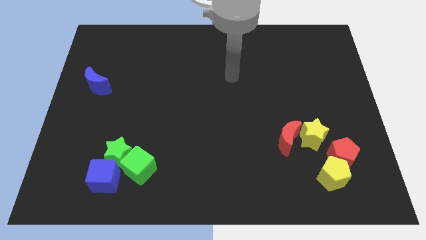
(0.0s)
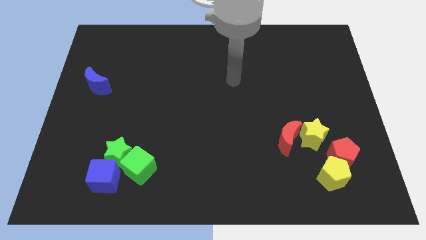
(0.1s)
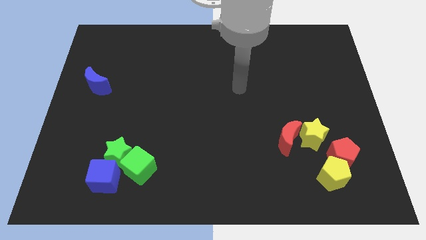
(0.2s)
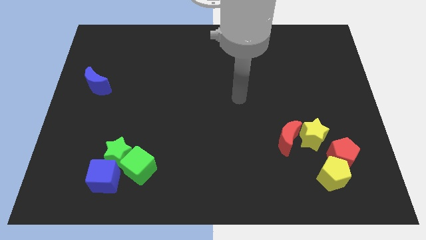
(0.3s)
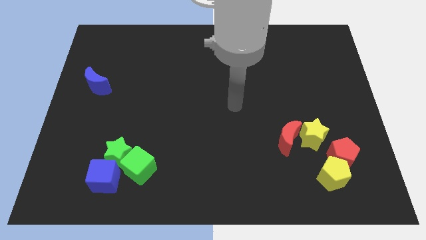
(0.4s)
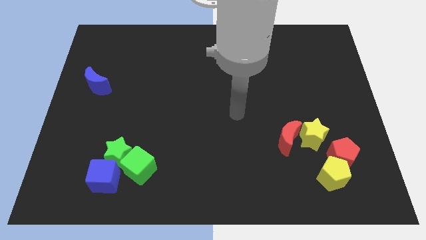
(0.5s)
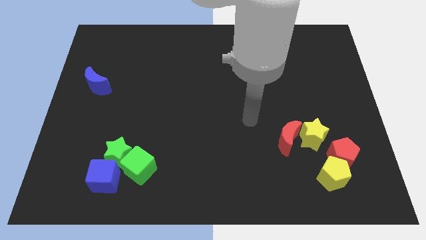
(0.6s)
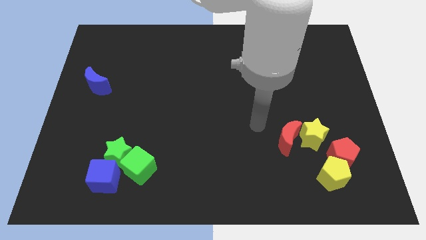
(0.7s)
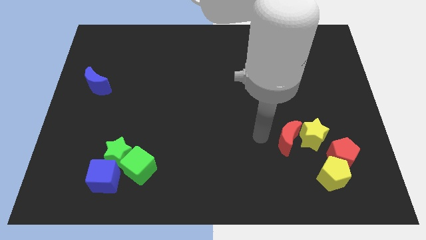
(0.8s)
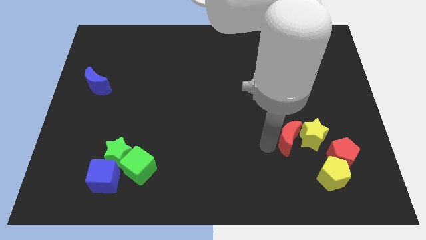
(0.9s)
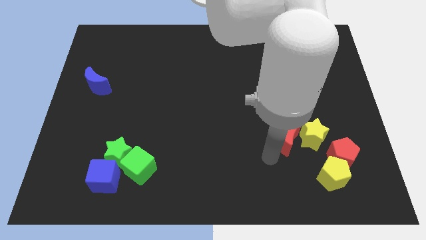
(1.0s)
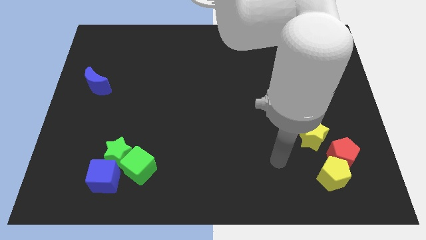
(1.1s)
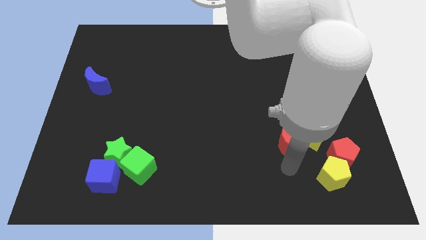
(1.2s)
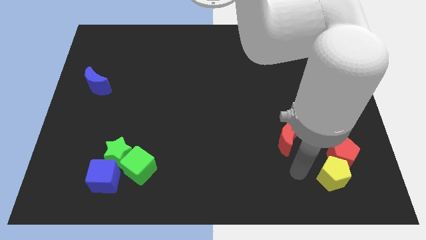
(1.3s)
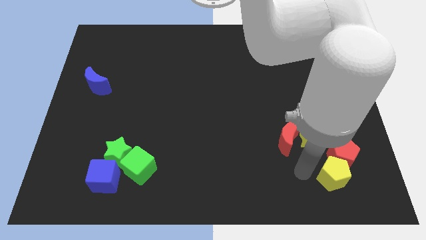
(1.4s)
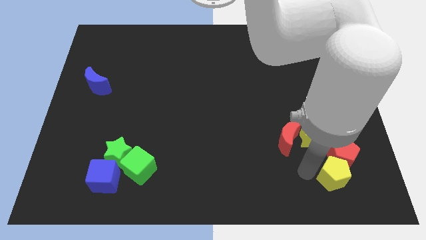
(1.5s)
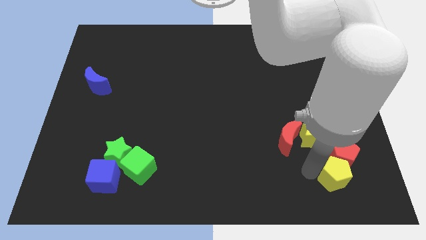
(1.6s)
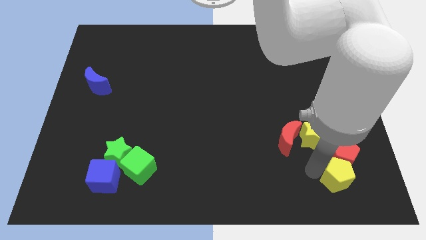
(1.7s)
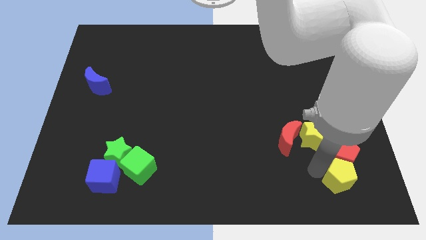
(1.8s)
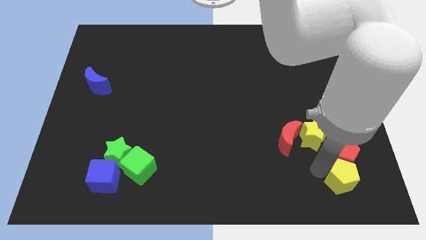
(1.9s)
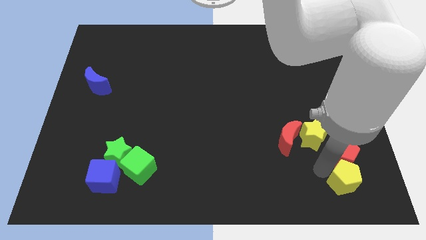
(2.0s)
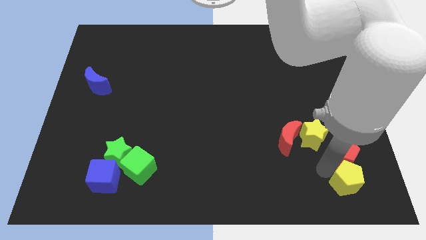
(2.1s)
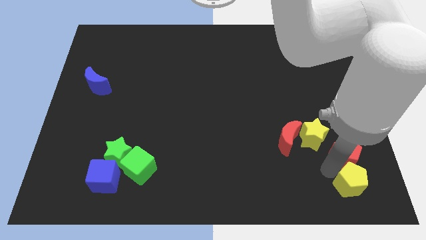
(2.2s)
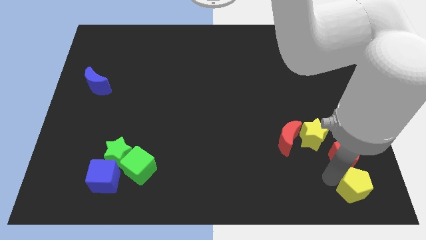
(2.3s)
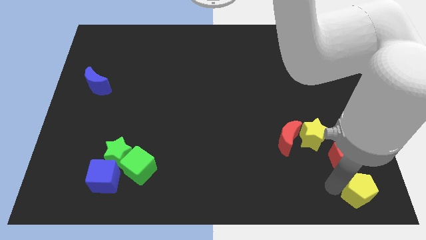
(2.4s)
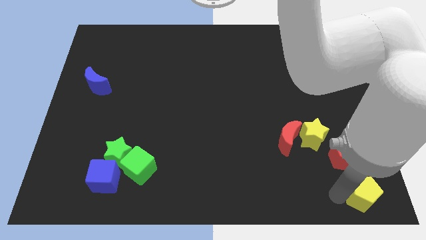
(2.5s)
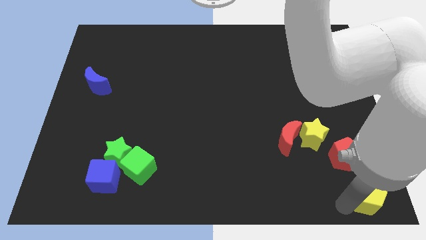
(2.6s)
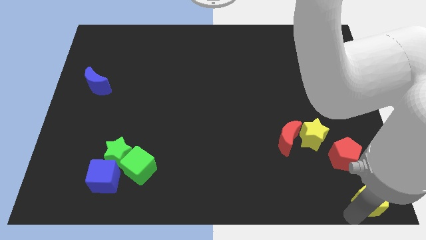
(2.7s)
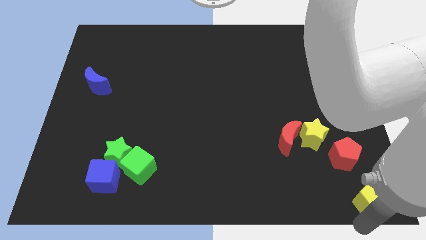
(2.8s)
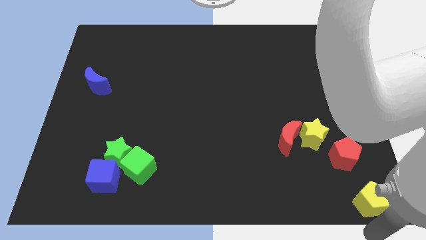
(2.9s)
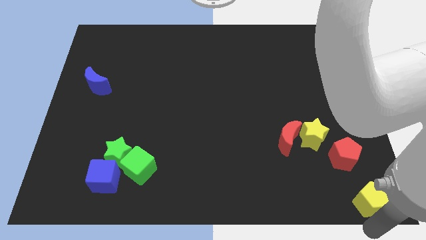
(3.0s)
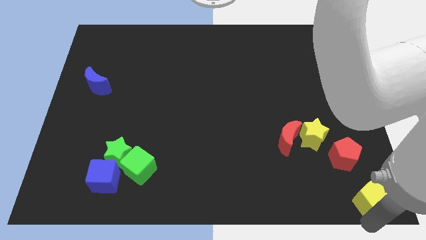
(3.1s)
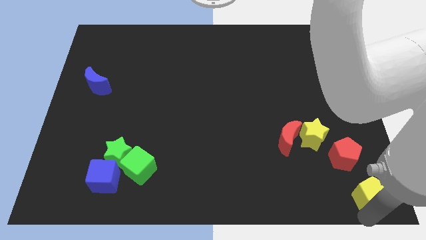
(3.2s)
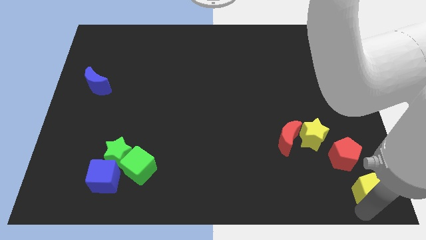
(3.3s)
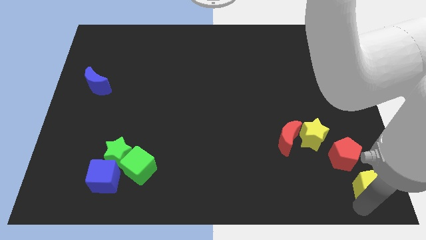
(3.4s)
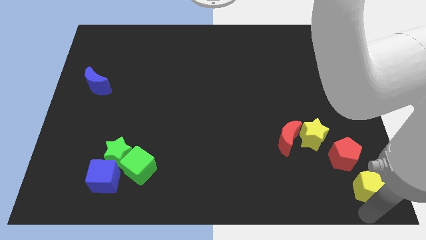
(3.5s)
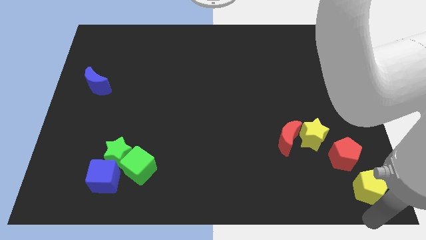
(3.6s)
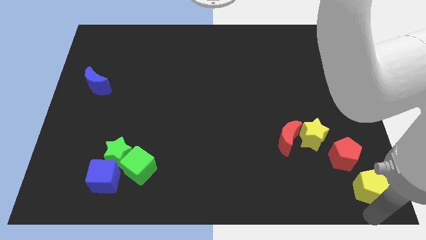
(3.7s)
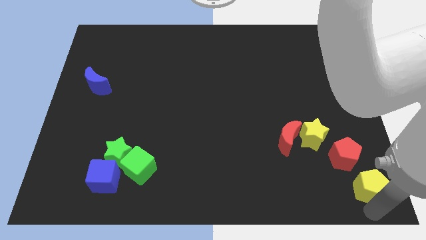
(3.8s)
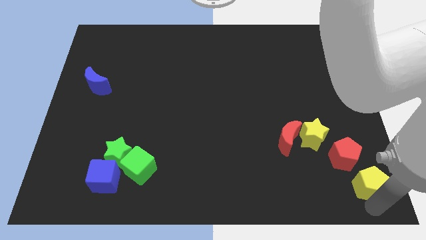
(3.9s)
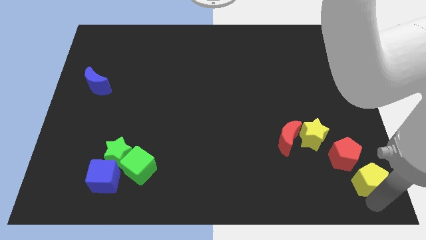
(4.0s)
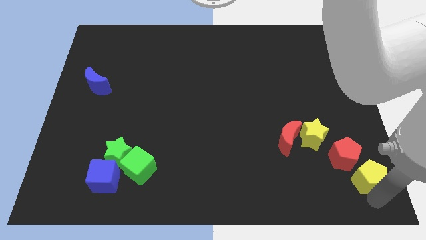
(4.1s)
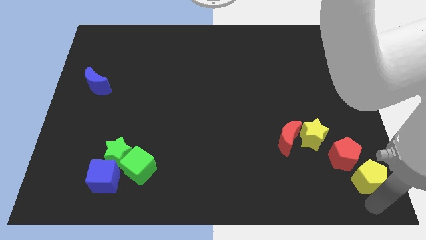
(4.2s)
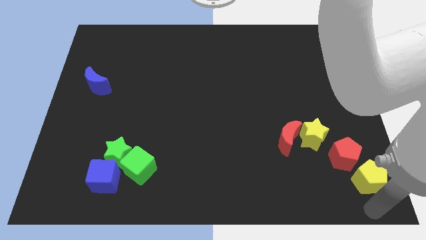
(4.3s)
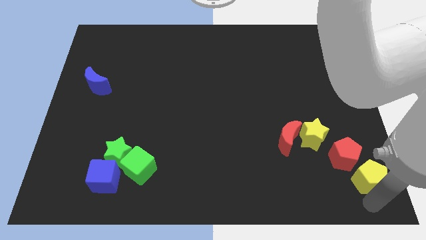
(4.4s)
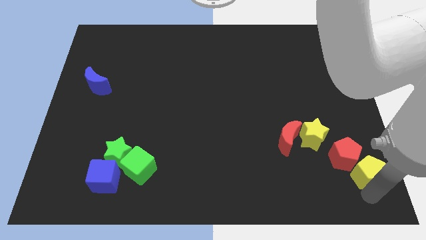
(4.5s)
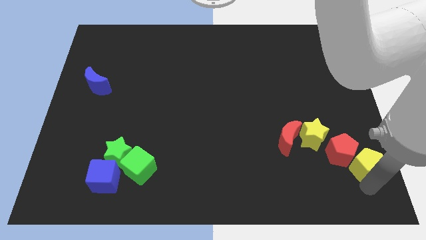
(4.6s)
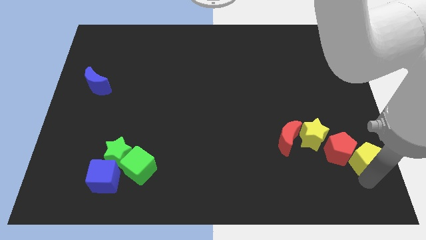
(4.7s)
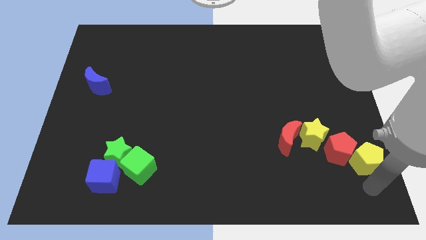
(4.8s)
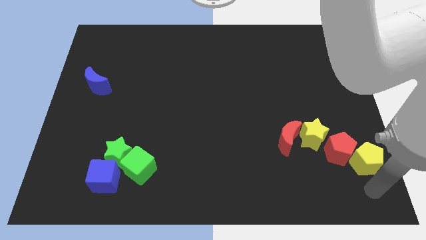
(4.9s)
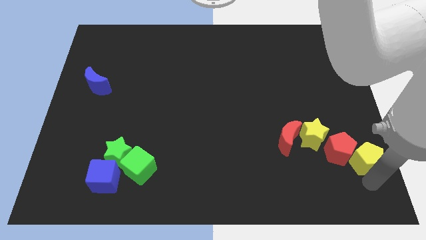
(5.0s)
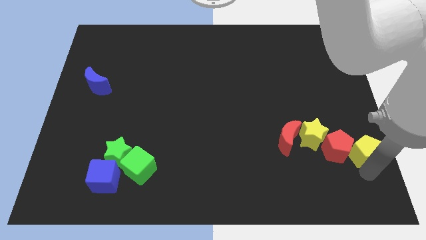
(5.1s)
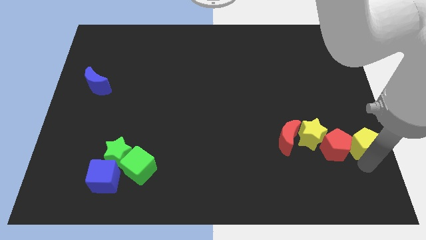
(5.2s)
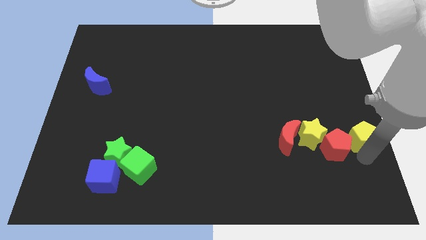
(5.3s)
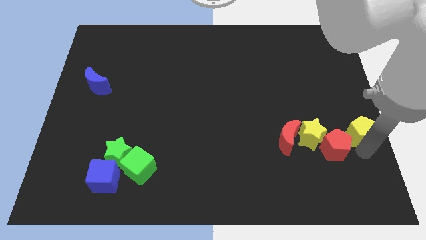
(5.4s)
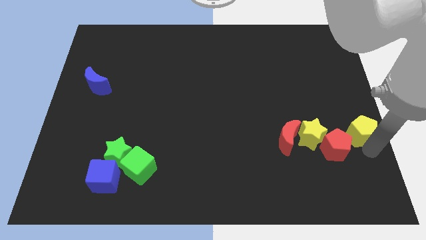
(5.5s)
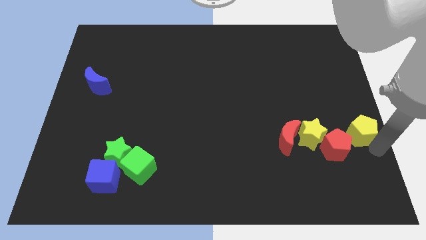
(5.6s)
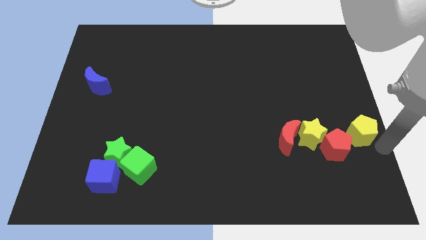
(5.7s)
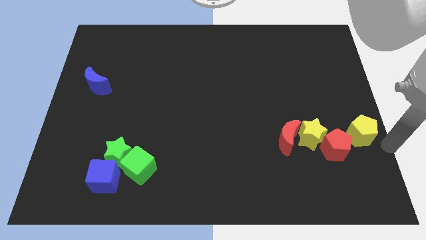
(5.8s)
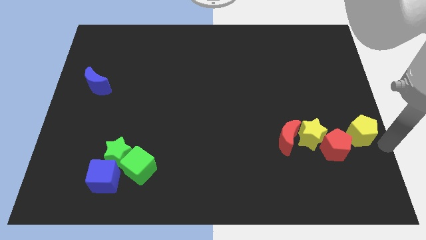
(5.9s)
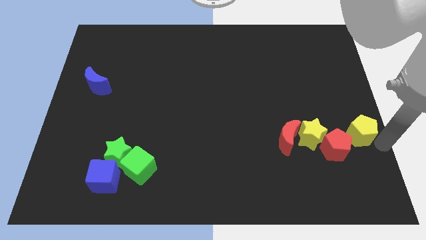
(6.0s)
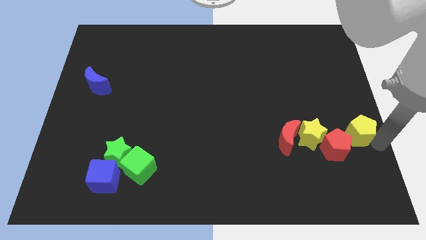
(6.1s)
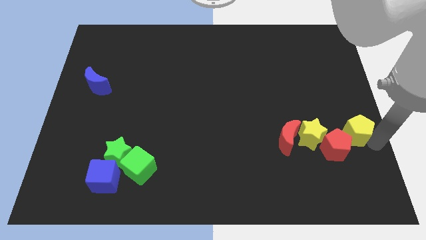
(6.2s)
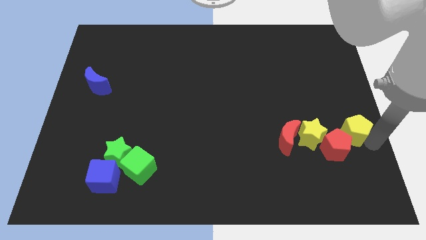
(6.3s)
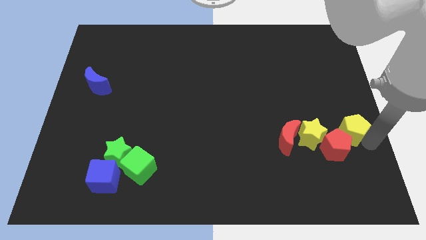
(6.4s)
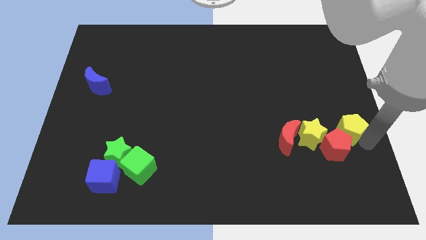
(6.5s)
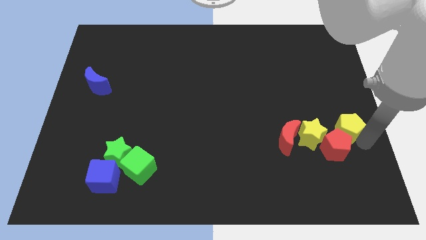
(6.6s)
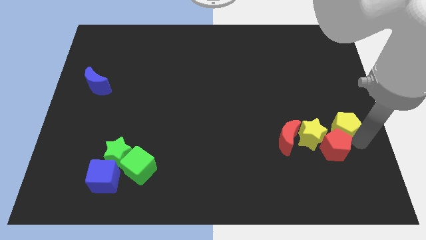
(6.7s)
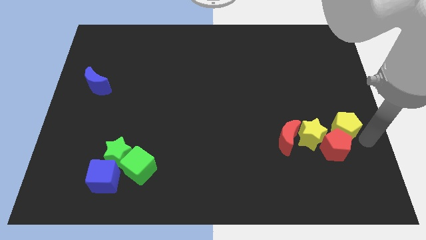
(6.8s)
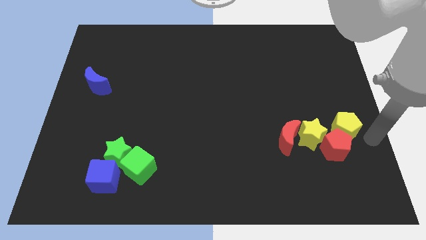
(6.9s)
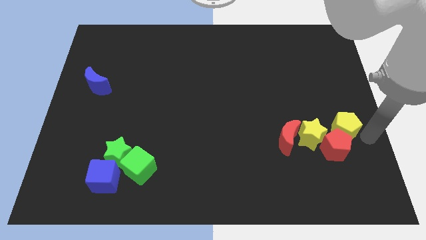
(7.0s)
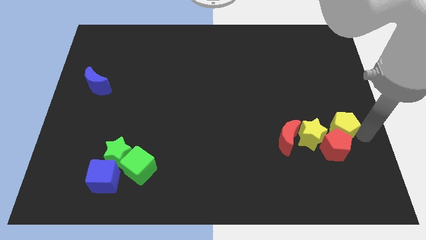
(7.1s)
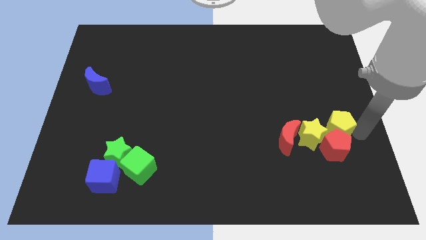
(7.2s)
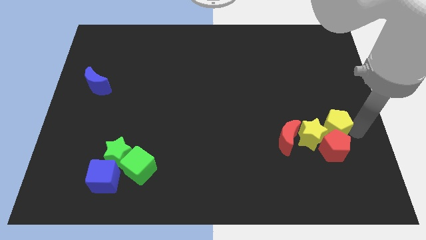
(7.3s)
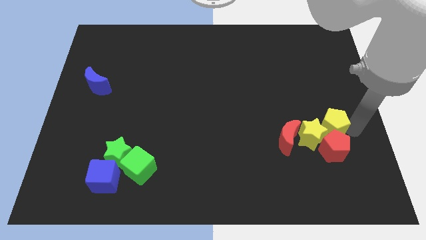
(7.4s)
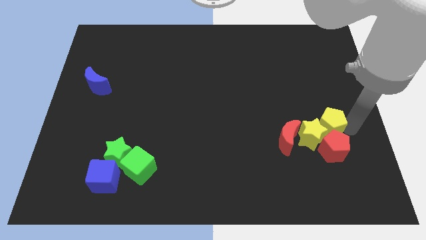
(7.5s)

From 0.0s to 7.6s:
push the yellow pentagon to the top right of the red moon

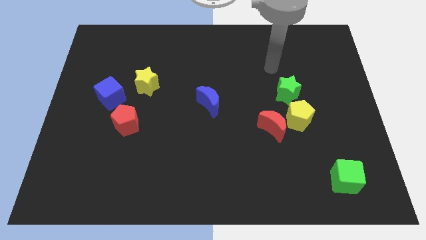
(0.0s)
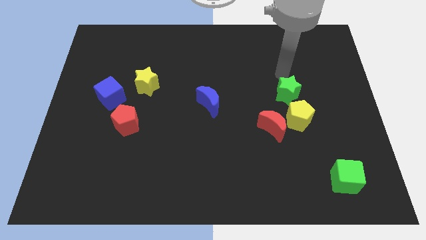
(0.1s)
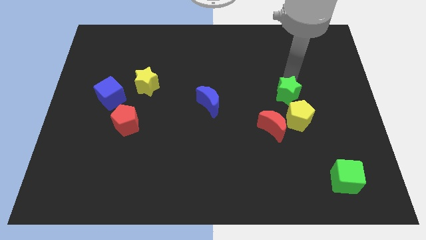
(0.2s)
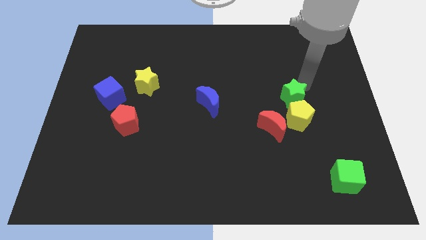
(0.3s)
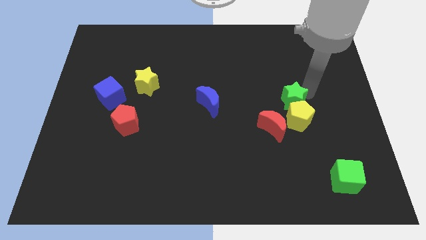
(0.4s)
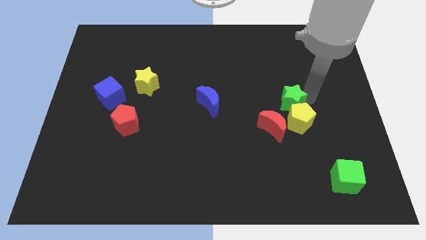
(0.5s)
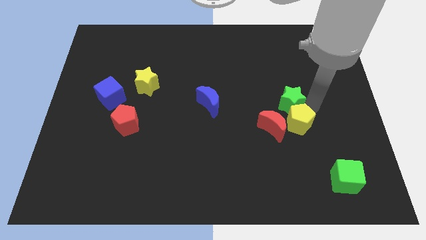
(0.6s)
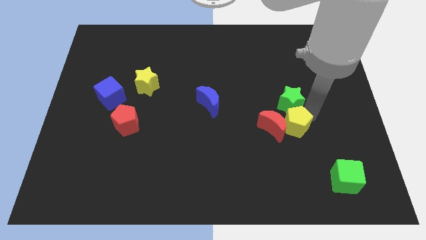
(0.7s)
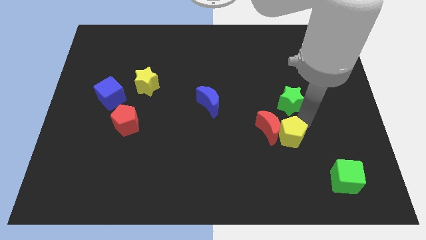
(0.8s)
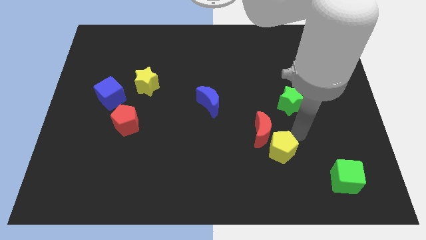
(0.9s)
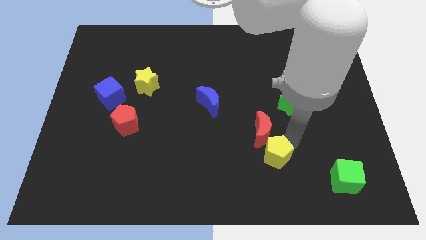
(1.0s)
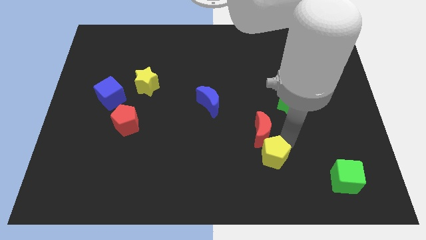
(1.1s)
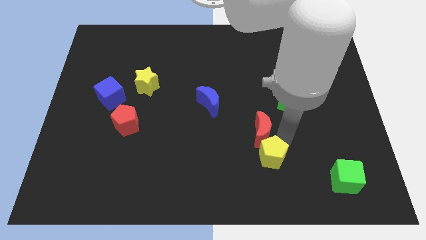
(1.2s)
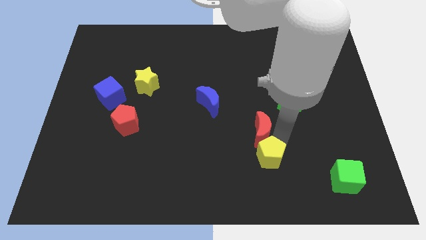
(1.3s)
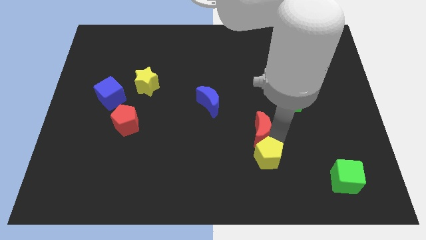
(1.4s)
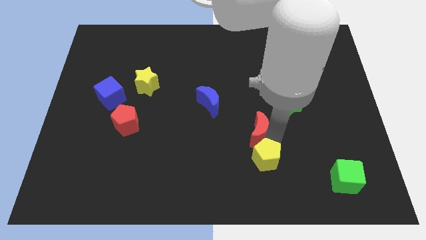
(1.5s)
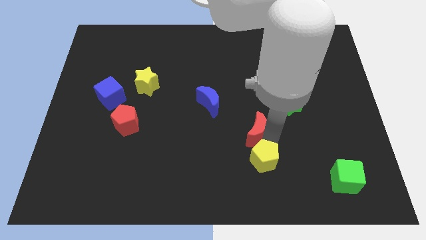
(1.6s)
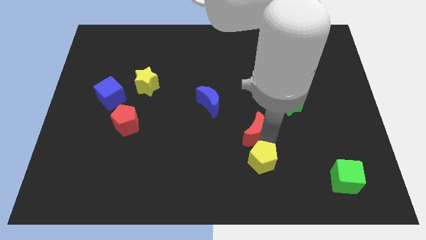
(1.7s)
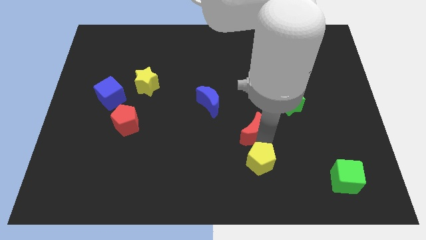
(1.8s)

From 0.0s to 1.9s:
push the red moon to the bottom right of the blue moon
